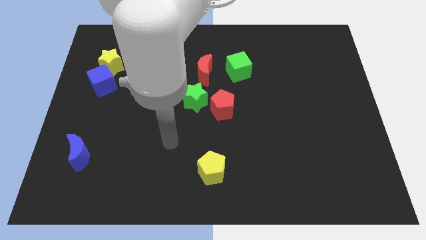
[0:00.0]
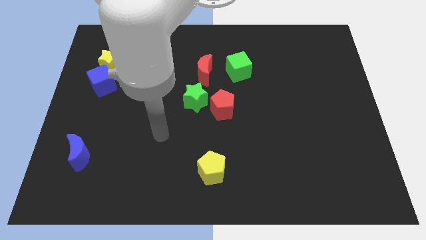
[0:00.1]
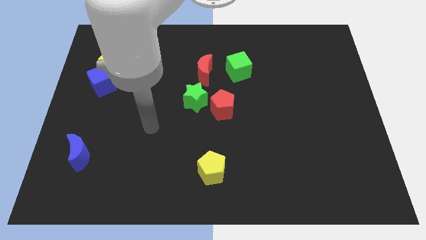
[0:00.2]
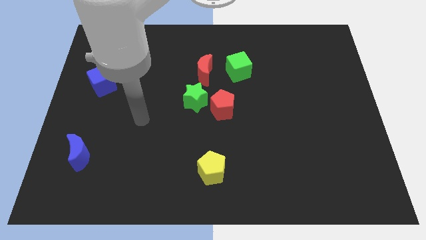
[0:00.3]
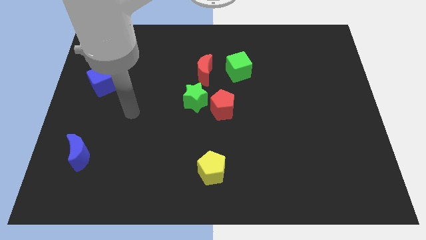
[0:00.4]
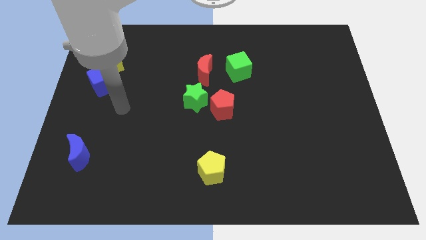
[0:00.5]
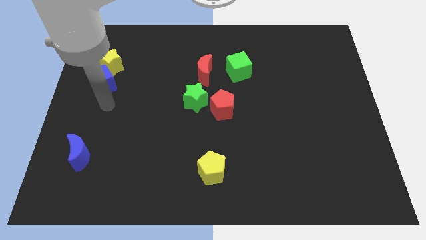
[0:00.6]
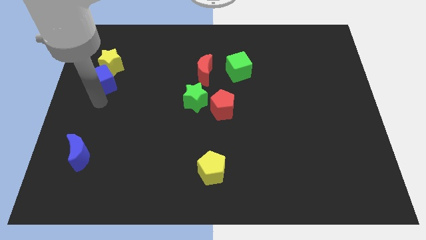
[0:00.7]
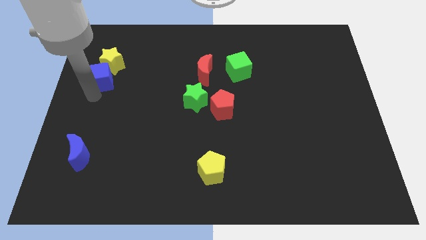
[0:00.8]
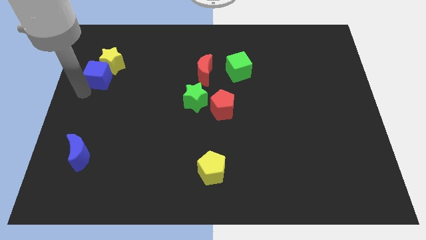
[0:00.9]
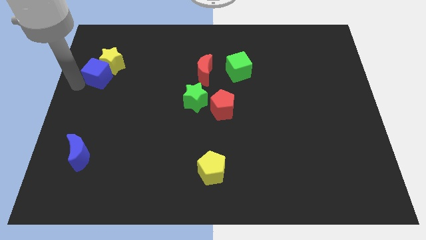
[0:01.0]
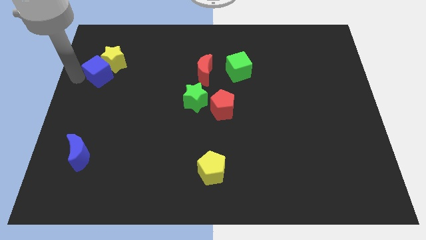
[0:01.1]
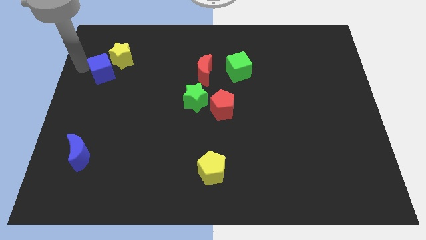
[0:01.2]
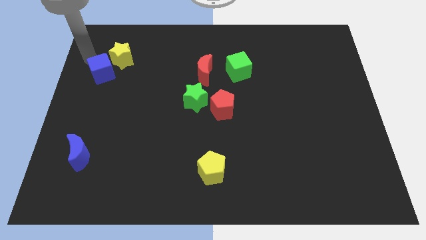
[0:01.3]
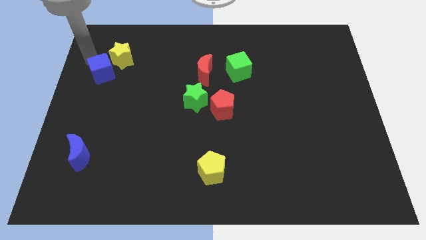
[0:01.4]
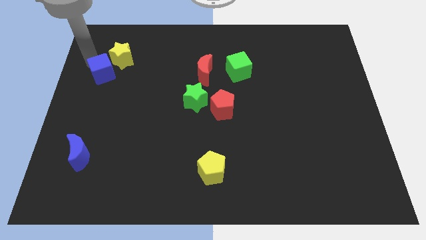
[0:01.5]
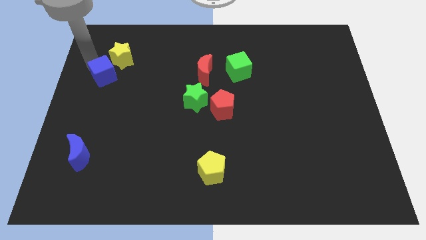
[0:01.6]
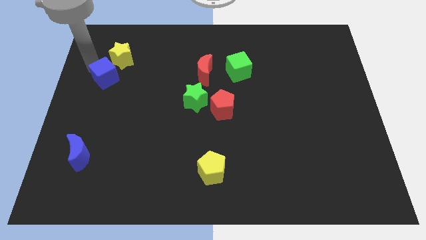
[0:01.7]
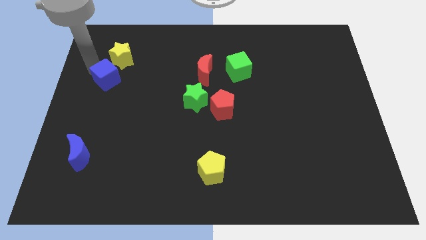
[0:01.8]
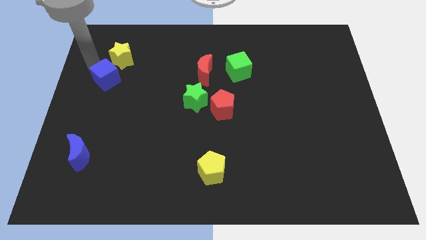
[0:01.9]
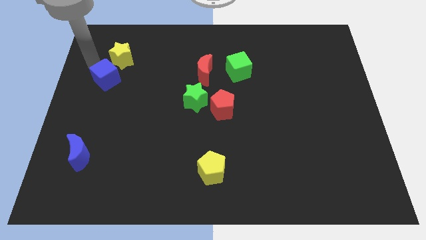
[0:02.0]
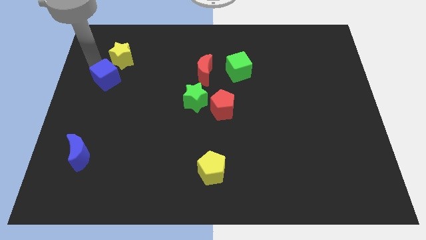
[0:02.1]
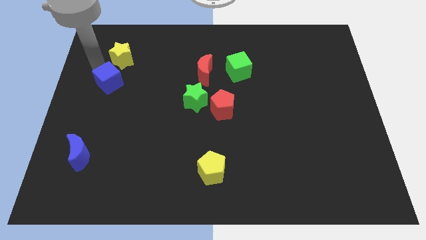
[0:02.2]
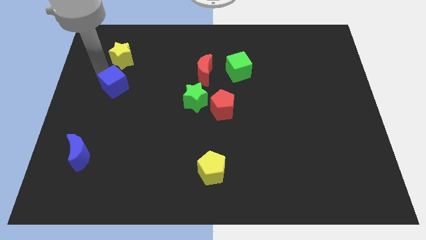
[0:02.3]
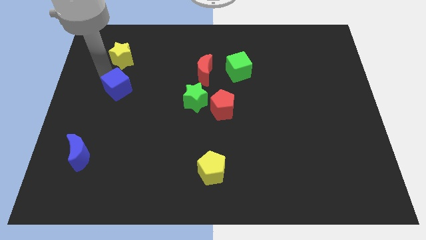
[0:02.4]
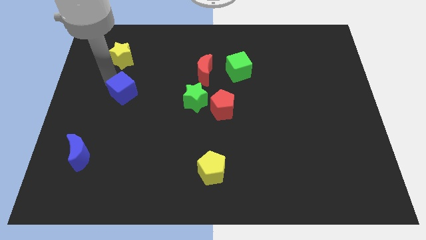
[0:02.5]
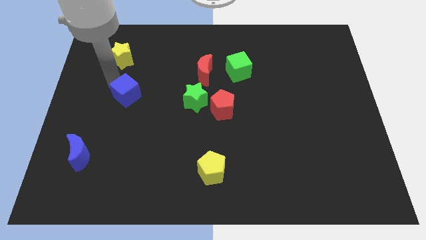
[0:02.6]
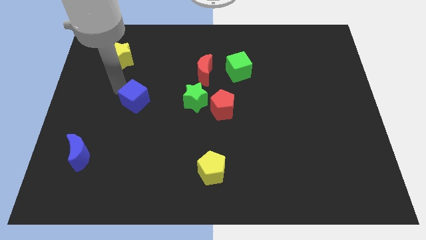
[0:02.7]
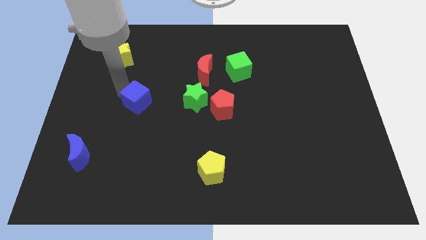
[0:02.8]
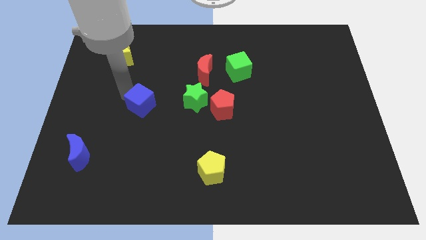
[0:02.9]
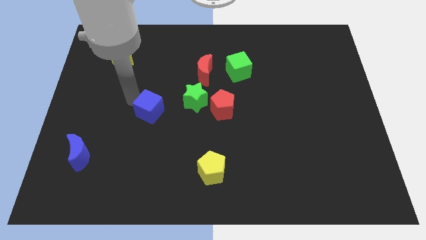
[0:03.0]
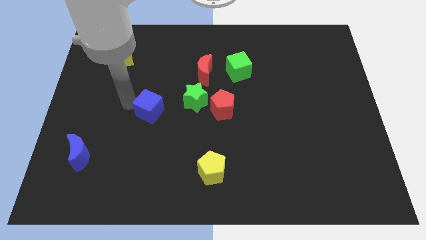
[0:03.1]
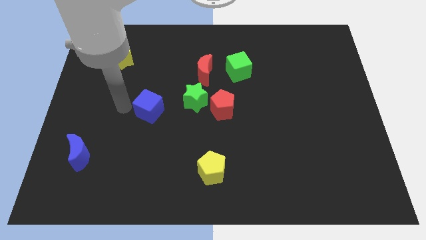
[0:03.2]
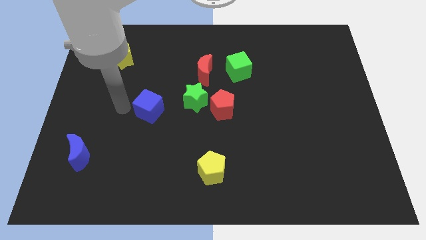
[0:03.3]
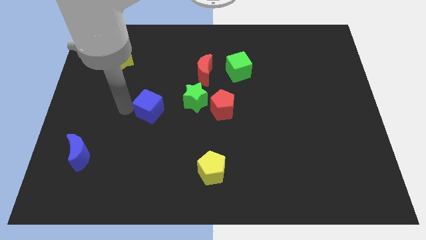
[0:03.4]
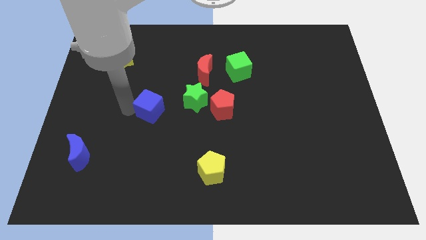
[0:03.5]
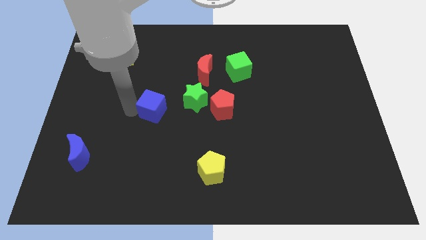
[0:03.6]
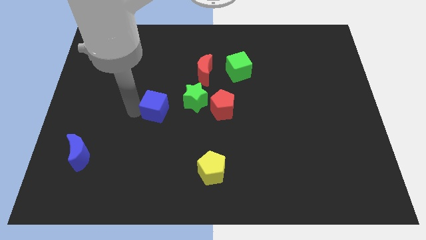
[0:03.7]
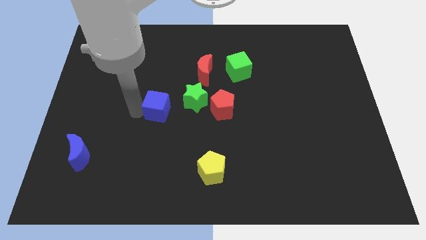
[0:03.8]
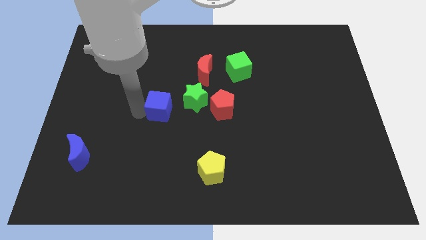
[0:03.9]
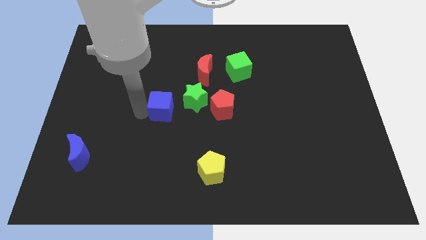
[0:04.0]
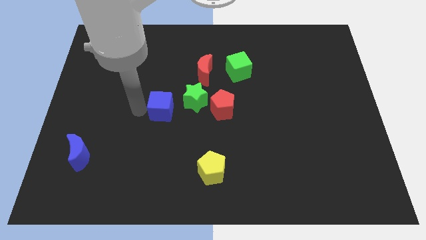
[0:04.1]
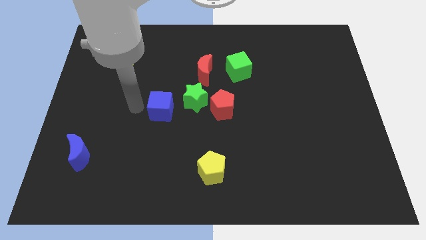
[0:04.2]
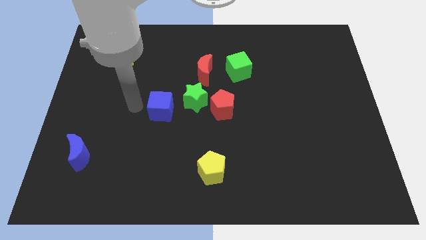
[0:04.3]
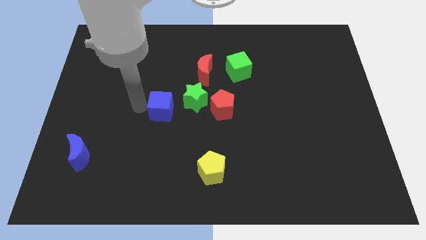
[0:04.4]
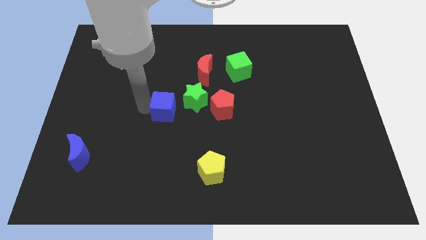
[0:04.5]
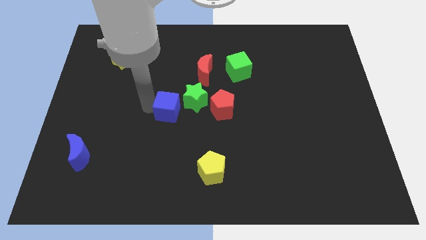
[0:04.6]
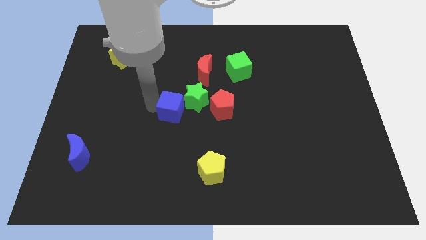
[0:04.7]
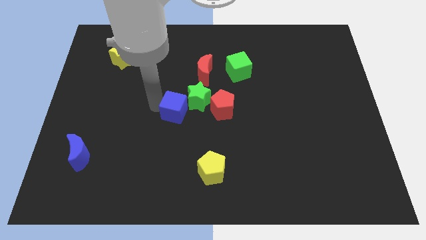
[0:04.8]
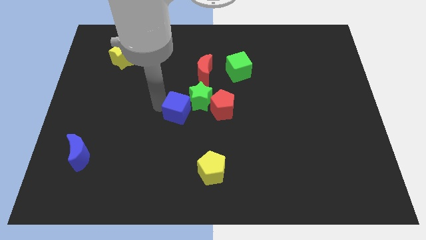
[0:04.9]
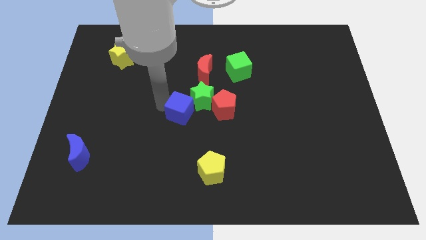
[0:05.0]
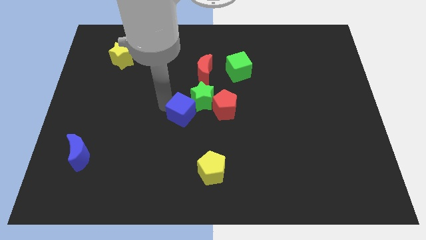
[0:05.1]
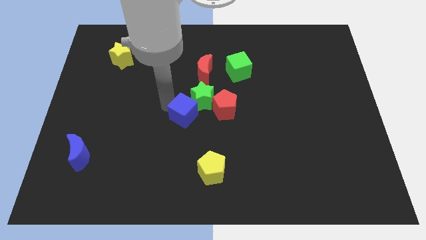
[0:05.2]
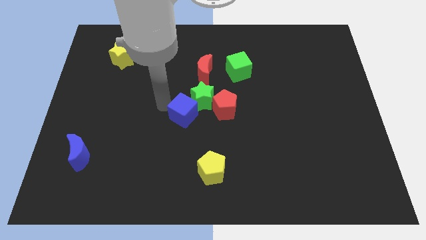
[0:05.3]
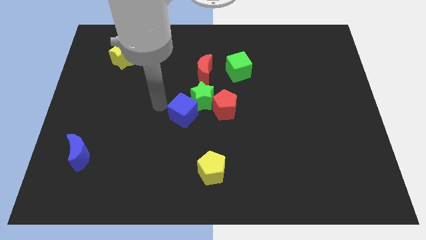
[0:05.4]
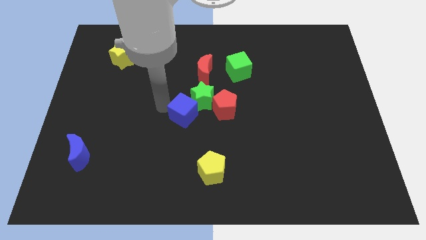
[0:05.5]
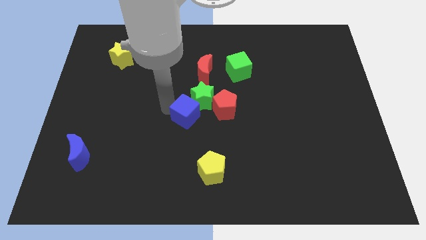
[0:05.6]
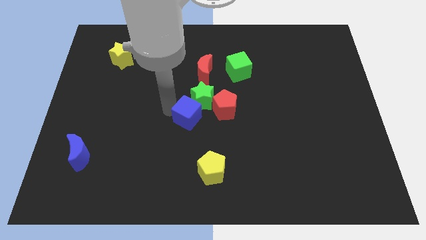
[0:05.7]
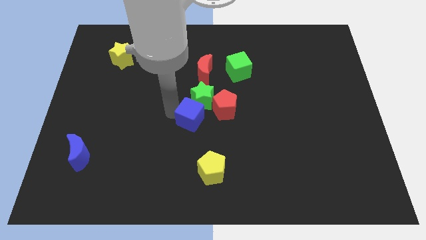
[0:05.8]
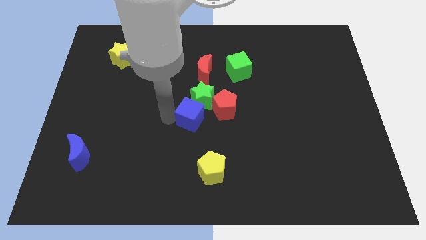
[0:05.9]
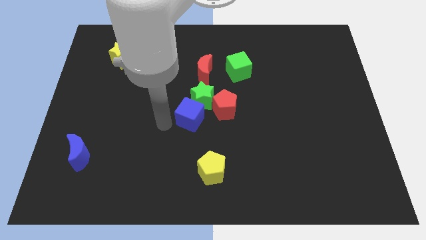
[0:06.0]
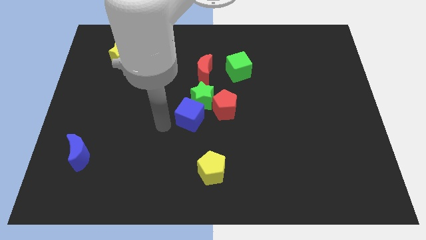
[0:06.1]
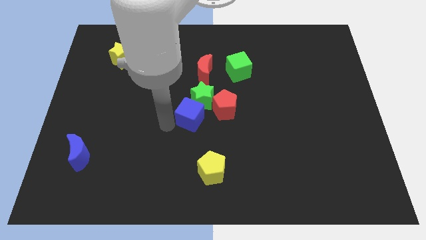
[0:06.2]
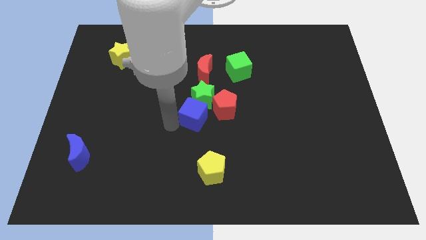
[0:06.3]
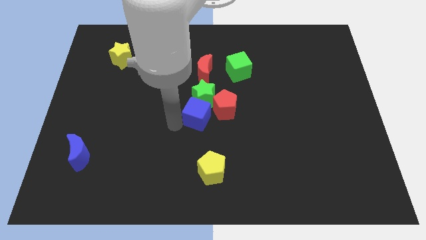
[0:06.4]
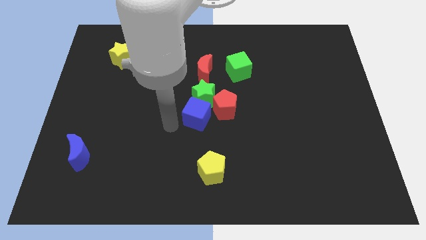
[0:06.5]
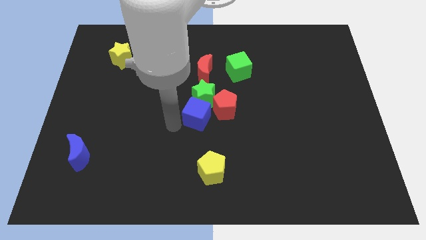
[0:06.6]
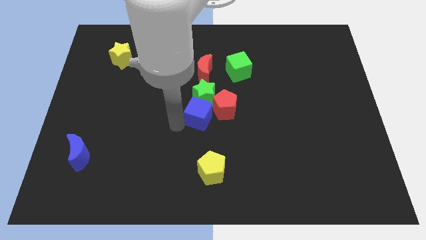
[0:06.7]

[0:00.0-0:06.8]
move the blue cube close to the red pentagon

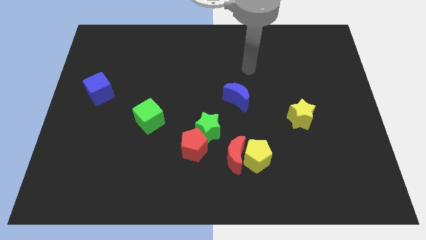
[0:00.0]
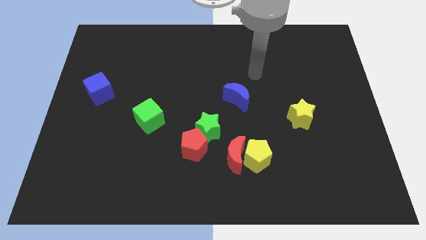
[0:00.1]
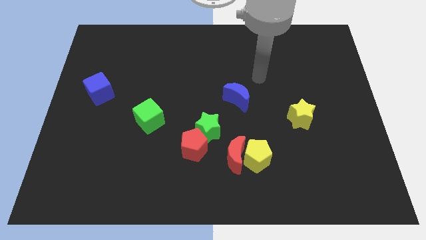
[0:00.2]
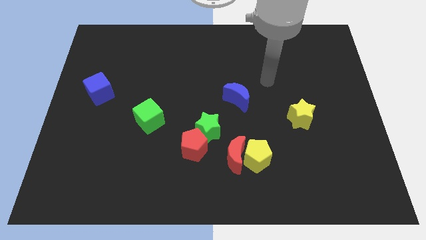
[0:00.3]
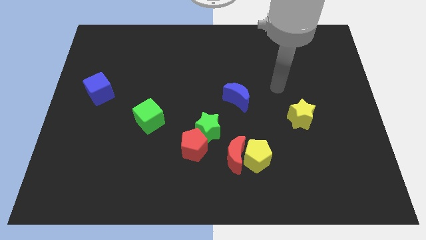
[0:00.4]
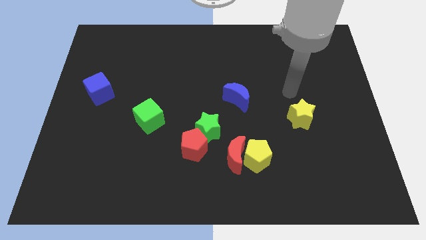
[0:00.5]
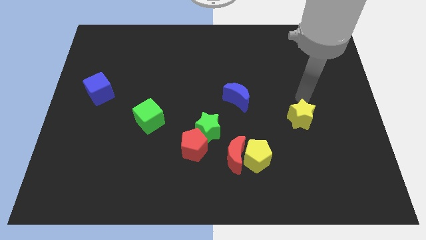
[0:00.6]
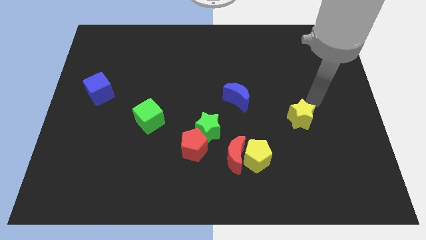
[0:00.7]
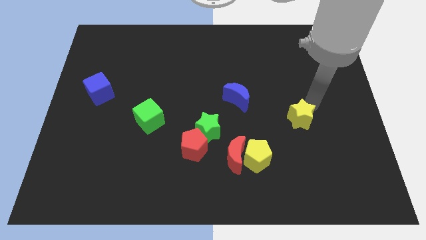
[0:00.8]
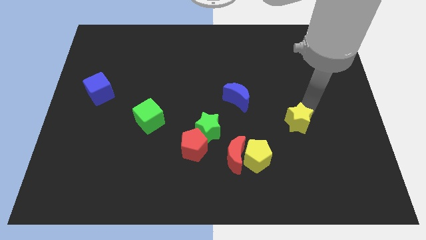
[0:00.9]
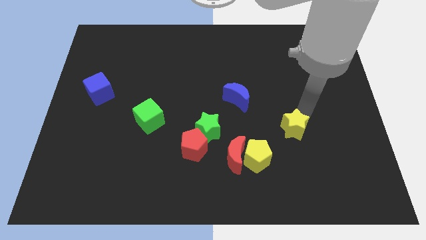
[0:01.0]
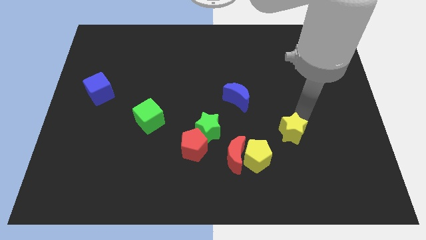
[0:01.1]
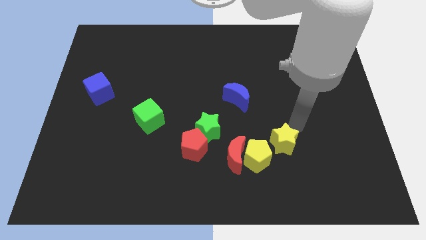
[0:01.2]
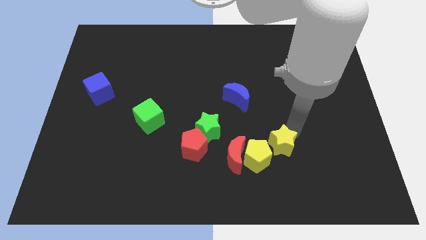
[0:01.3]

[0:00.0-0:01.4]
move the yellow star close to the yellow pentagon
